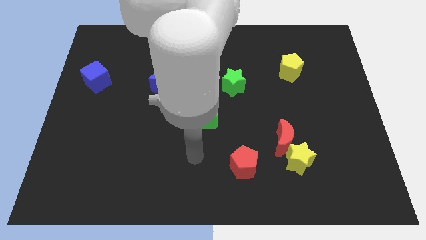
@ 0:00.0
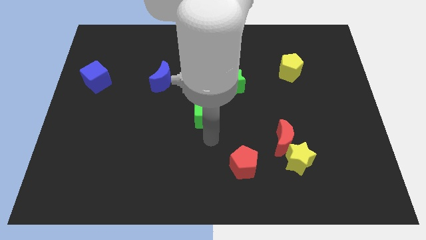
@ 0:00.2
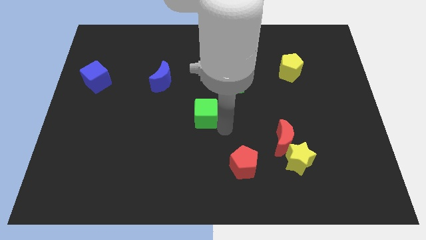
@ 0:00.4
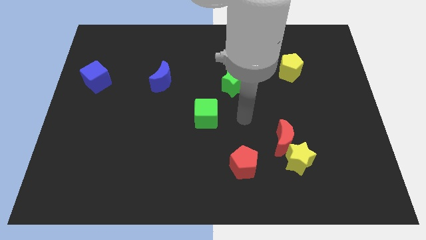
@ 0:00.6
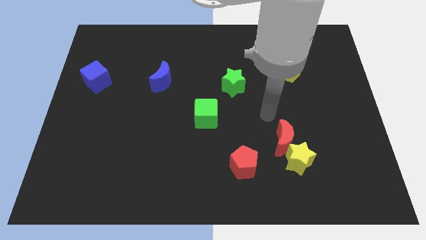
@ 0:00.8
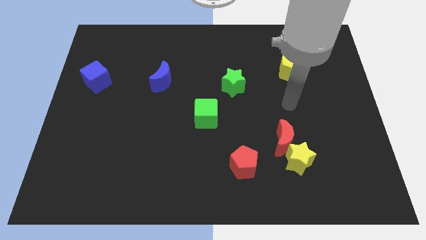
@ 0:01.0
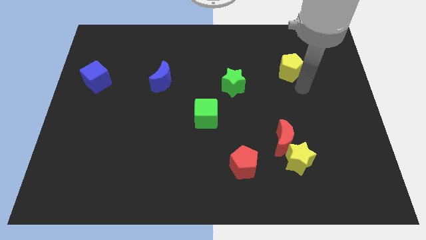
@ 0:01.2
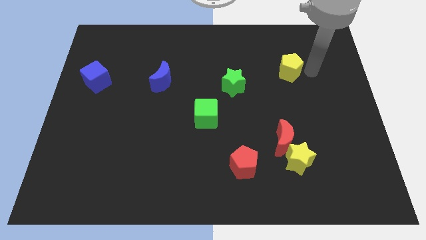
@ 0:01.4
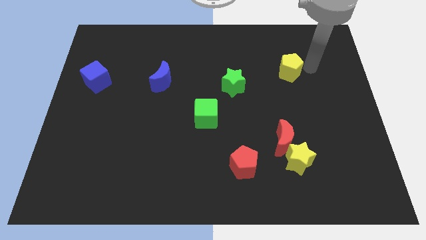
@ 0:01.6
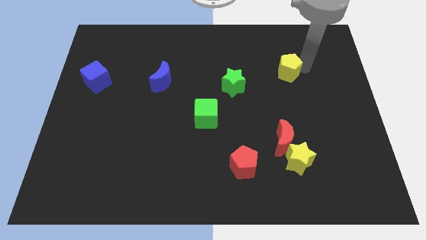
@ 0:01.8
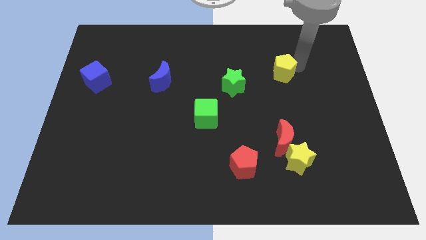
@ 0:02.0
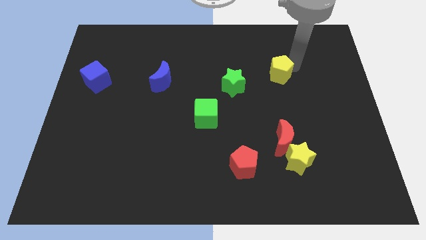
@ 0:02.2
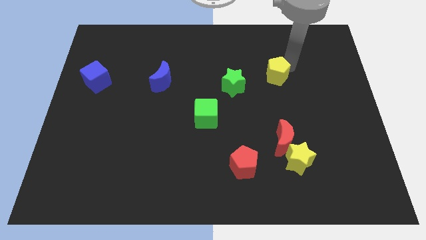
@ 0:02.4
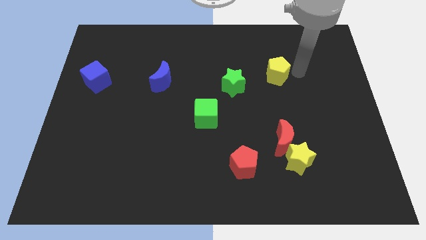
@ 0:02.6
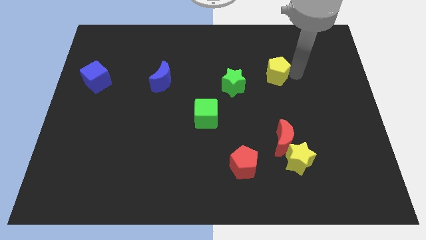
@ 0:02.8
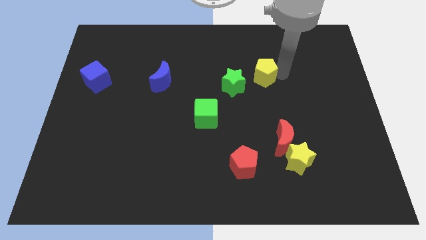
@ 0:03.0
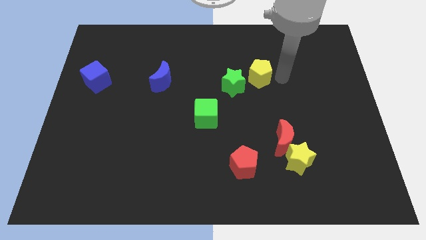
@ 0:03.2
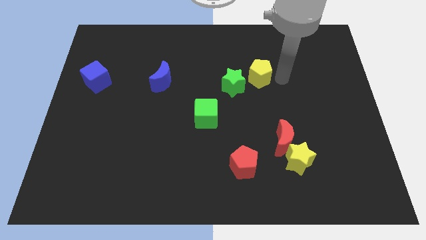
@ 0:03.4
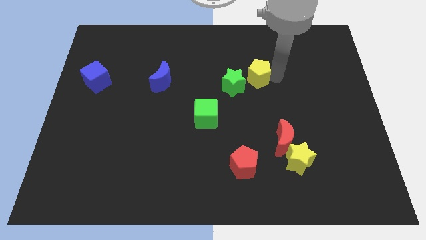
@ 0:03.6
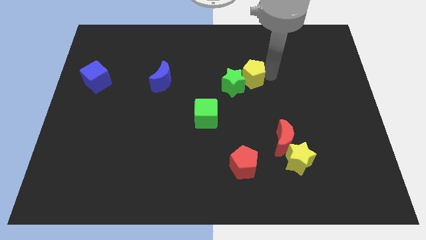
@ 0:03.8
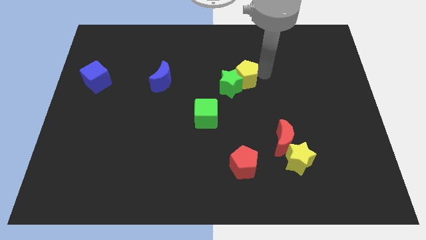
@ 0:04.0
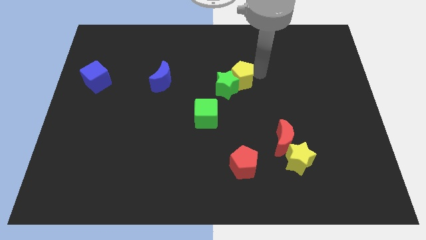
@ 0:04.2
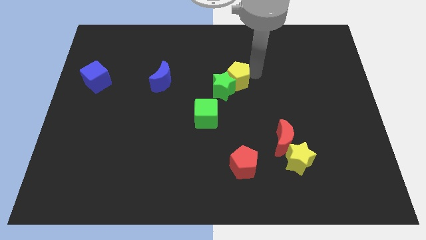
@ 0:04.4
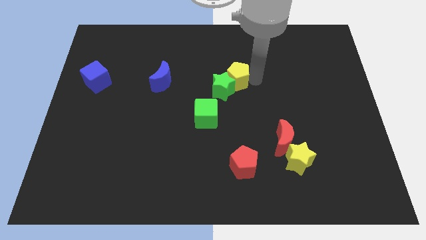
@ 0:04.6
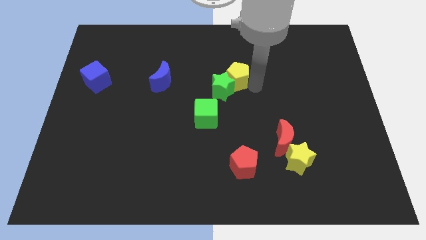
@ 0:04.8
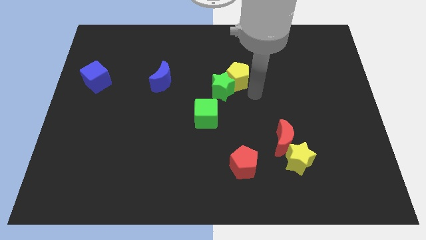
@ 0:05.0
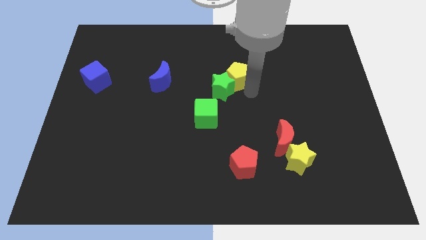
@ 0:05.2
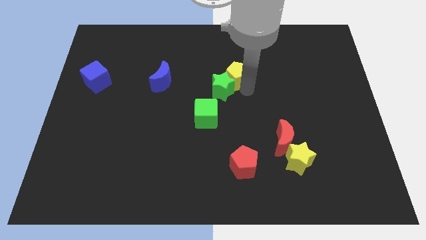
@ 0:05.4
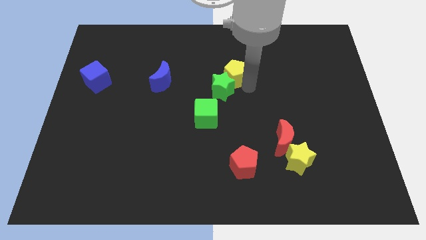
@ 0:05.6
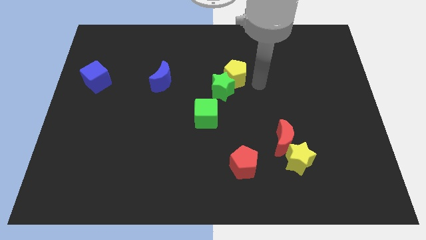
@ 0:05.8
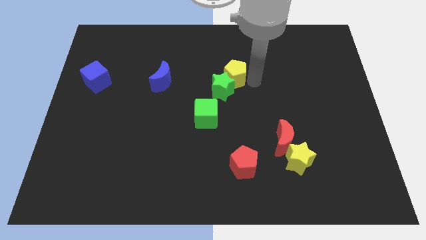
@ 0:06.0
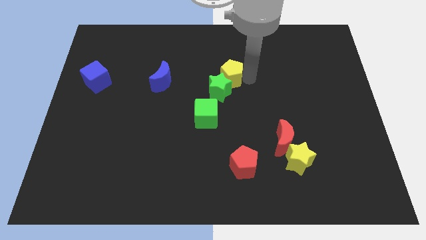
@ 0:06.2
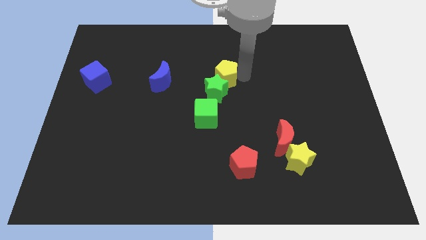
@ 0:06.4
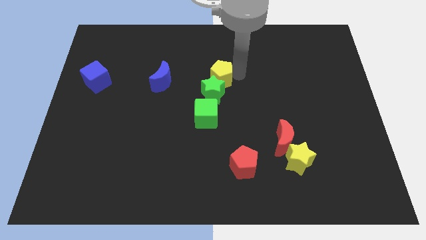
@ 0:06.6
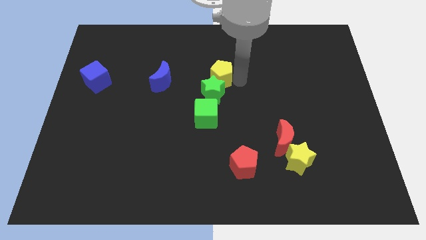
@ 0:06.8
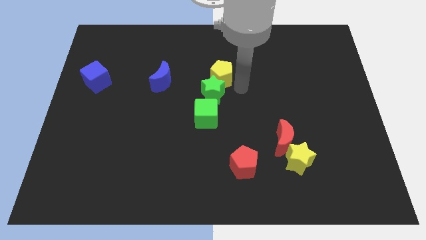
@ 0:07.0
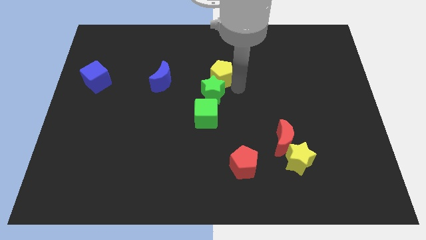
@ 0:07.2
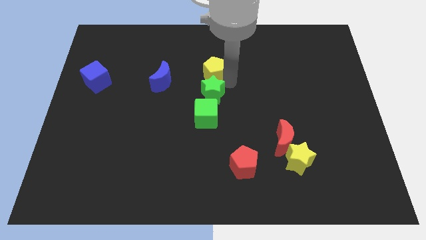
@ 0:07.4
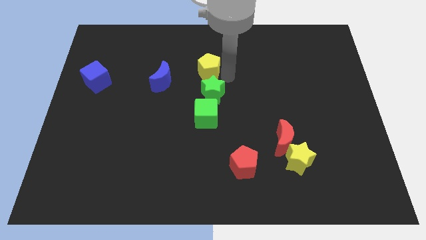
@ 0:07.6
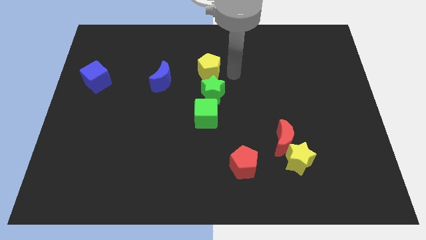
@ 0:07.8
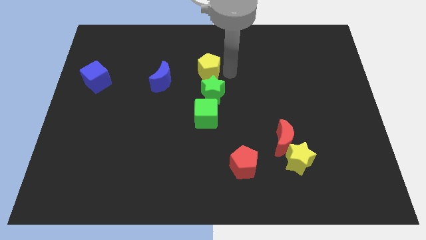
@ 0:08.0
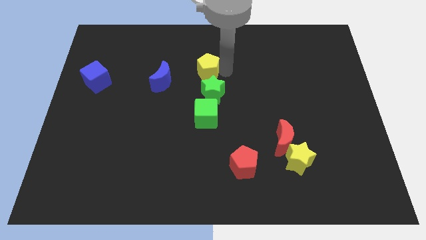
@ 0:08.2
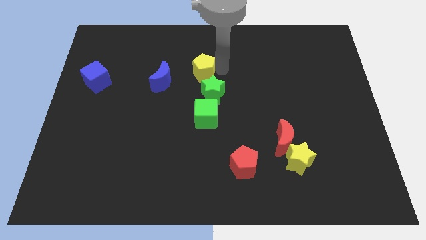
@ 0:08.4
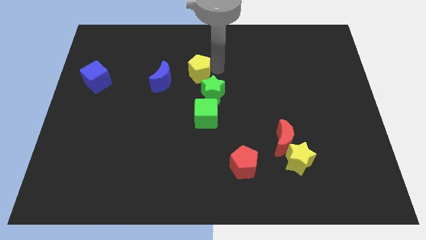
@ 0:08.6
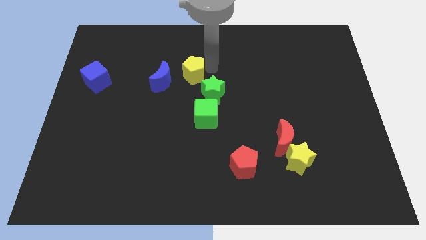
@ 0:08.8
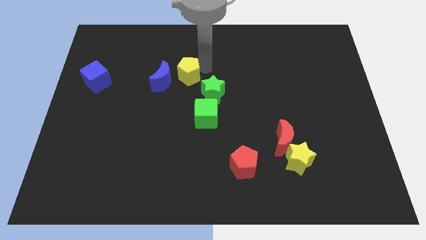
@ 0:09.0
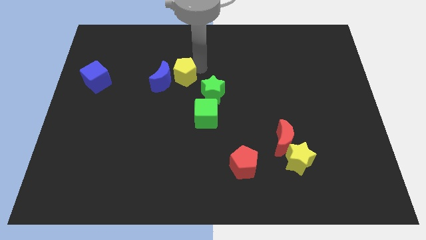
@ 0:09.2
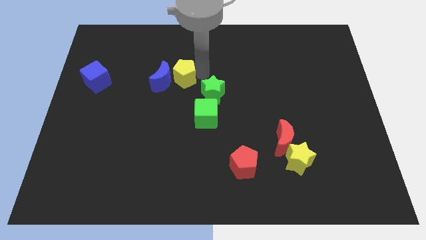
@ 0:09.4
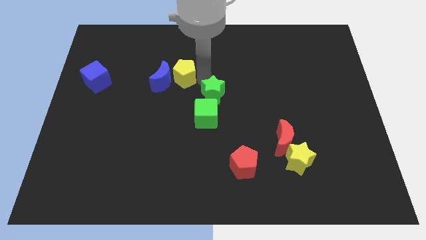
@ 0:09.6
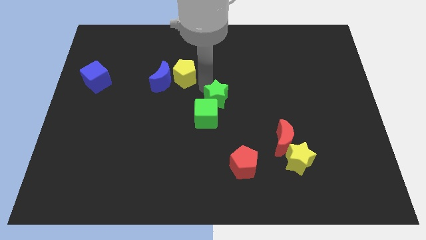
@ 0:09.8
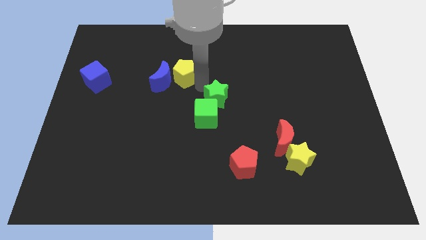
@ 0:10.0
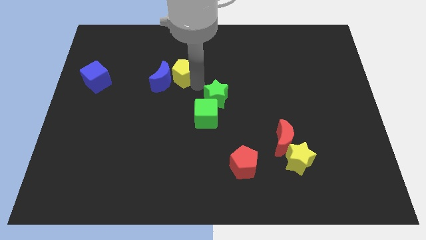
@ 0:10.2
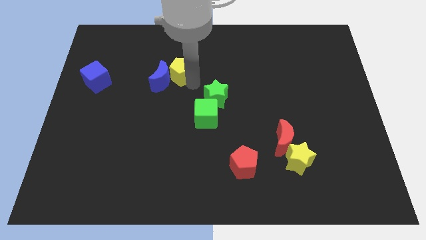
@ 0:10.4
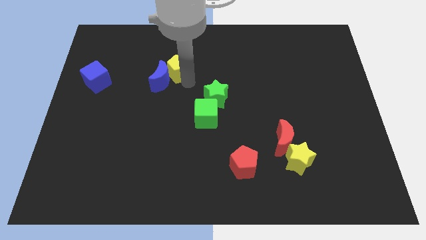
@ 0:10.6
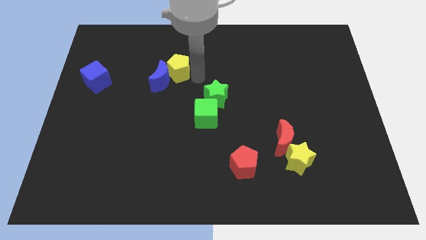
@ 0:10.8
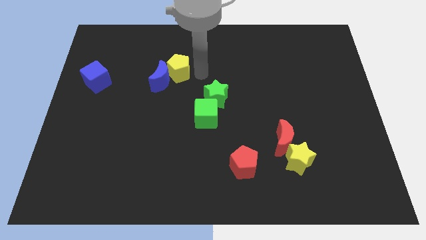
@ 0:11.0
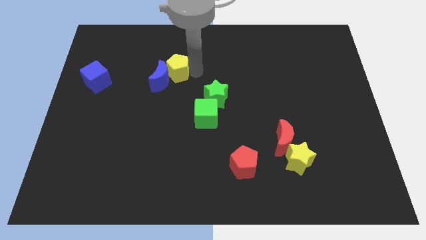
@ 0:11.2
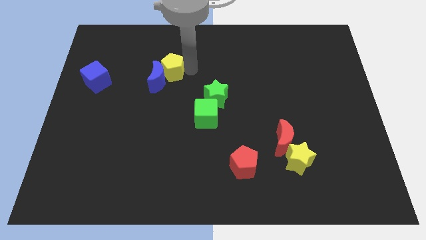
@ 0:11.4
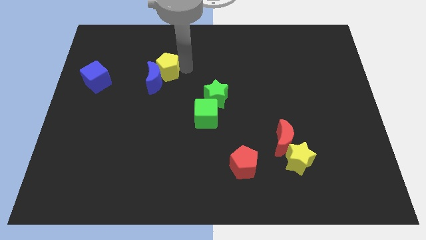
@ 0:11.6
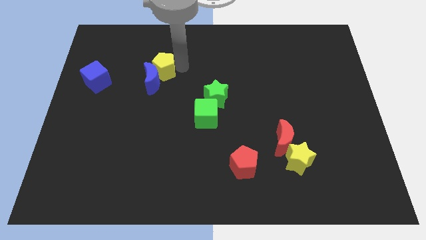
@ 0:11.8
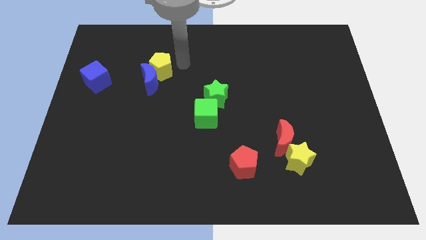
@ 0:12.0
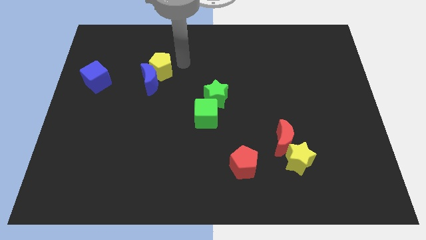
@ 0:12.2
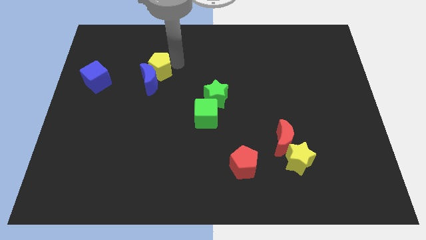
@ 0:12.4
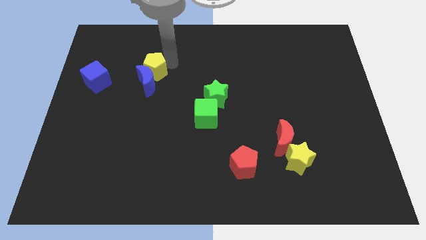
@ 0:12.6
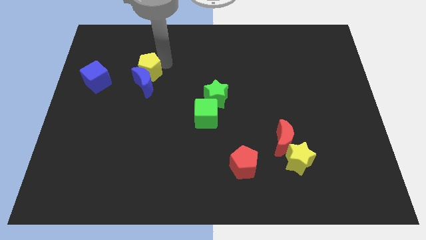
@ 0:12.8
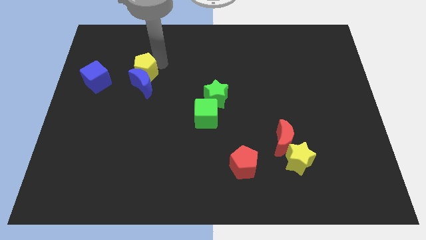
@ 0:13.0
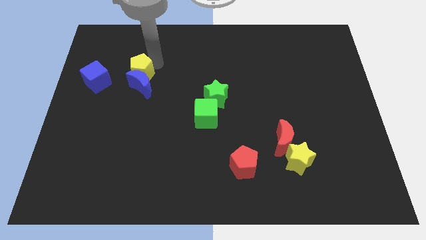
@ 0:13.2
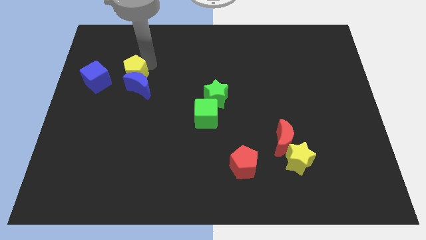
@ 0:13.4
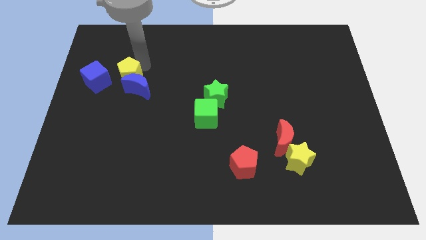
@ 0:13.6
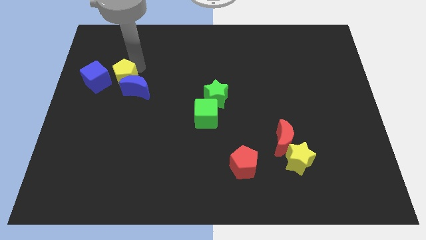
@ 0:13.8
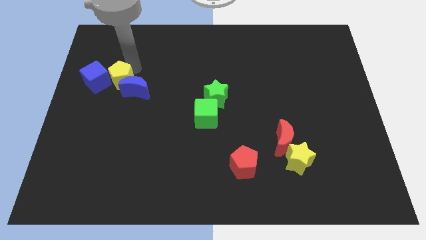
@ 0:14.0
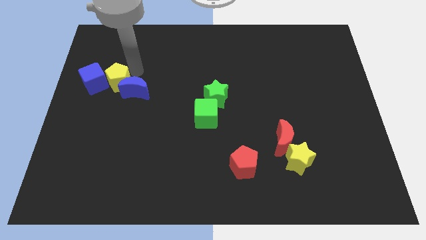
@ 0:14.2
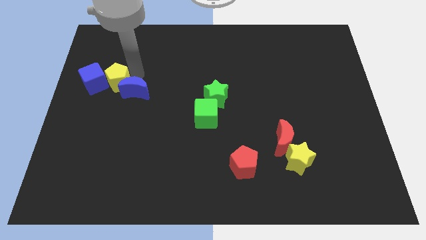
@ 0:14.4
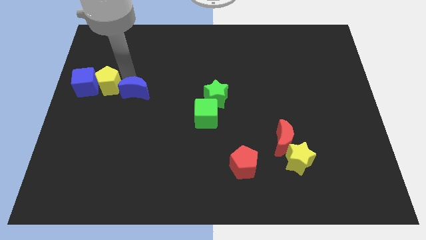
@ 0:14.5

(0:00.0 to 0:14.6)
put the yellow pentagon to the center left
